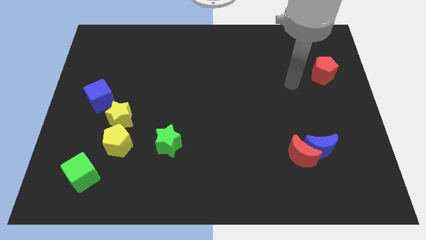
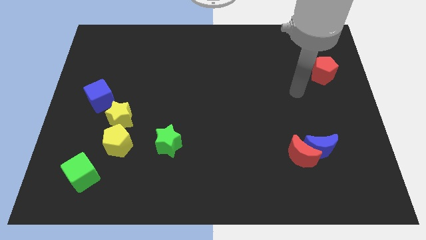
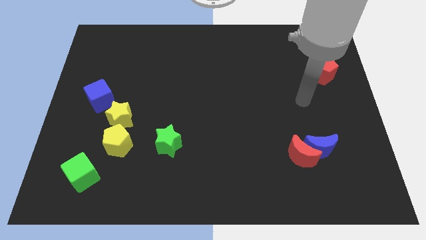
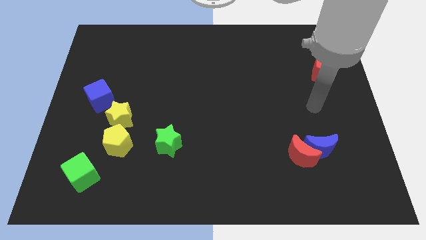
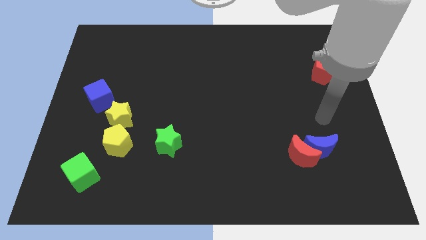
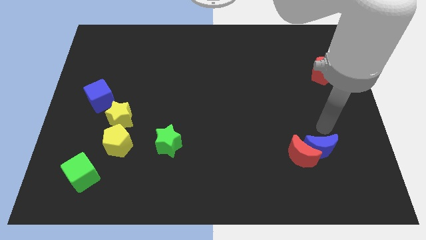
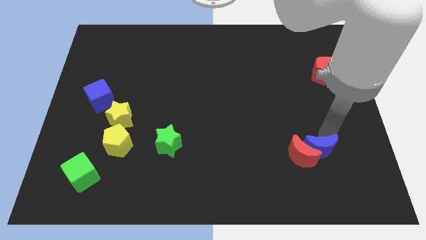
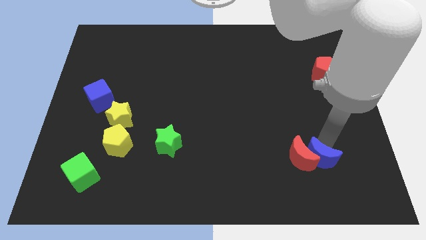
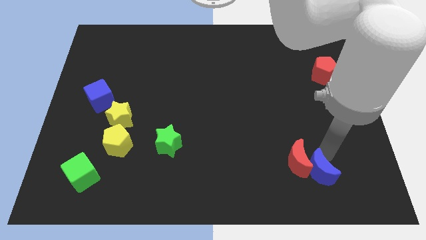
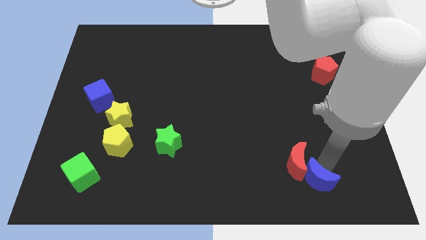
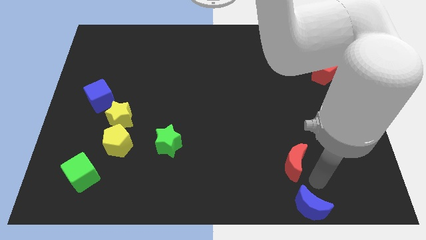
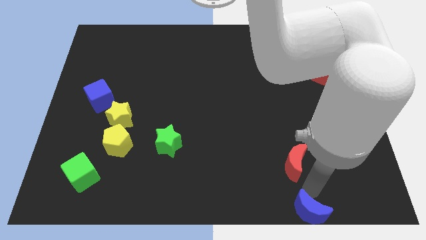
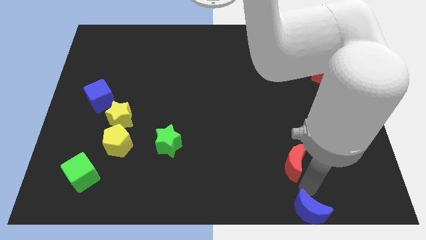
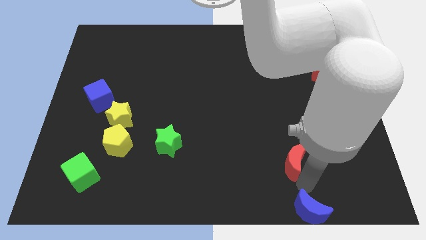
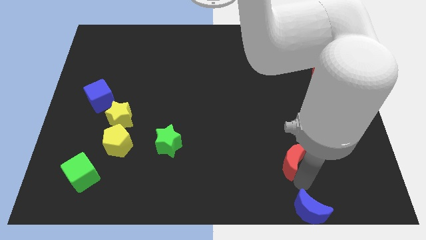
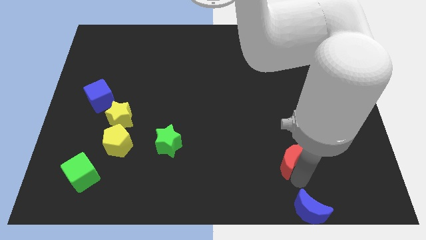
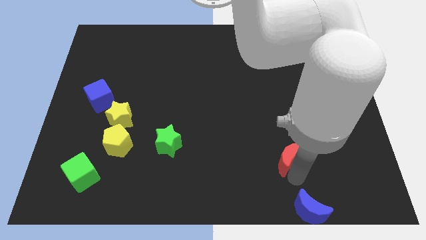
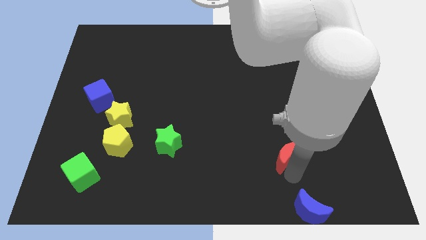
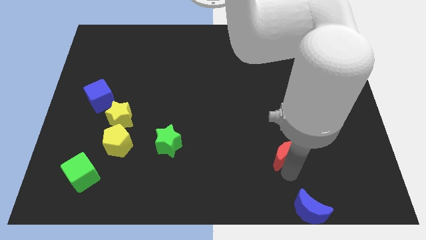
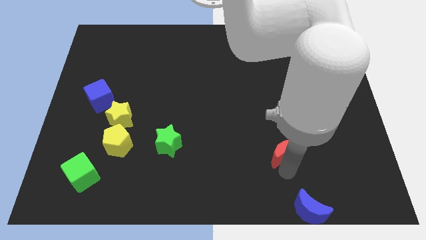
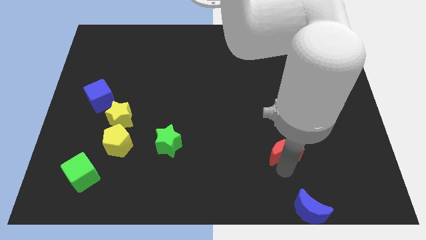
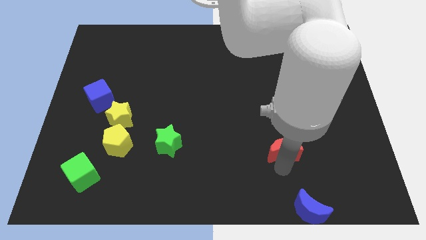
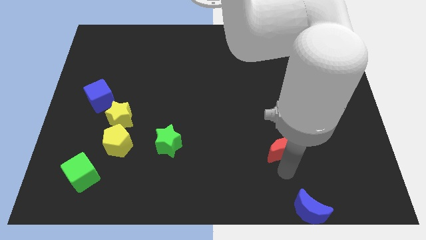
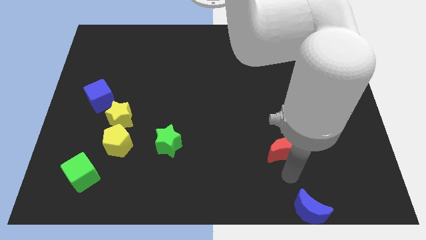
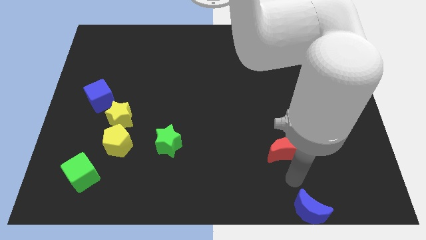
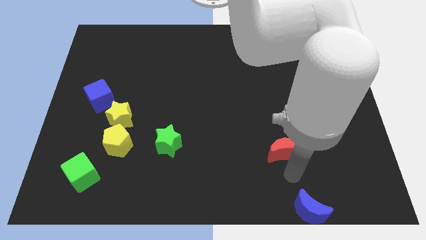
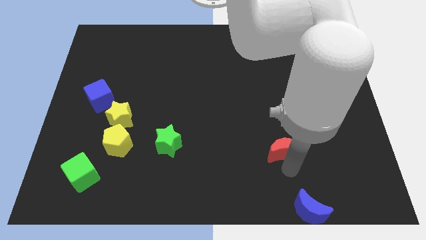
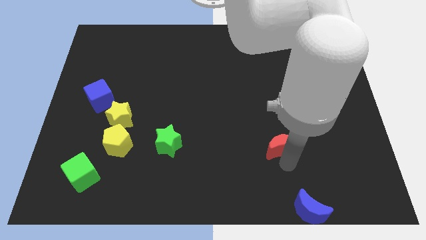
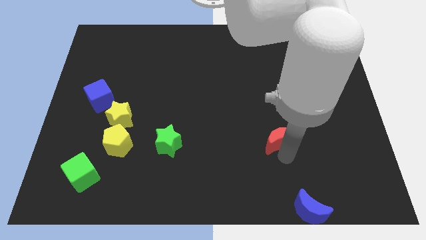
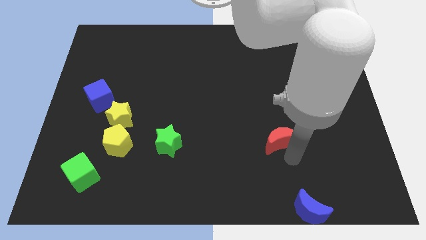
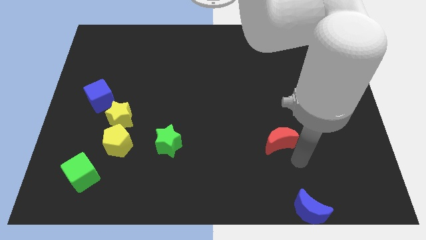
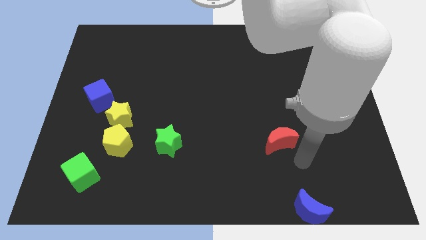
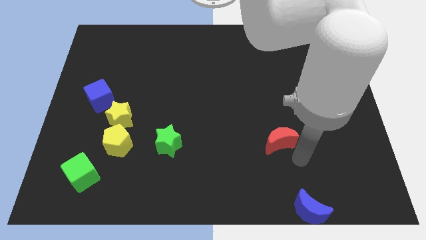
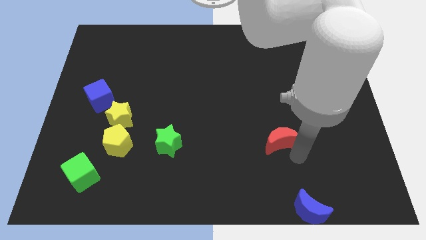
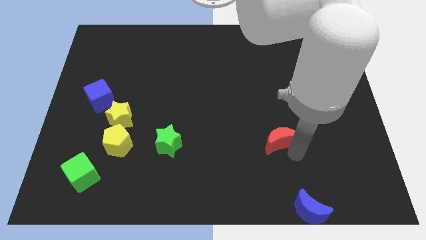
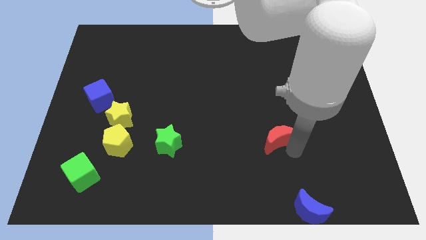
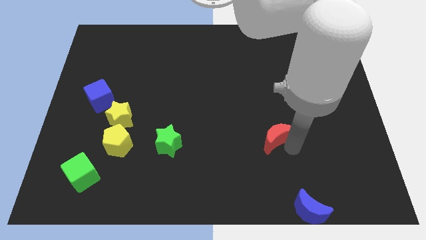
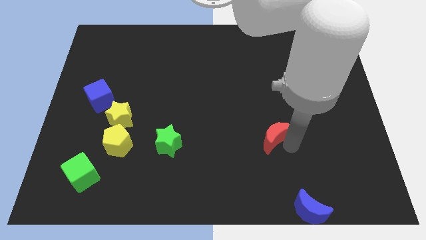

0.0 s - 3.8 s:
slightly slide the red moon up and left diagonally

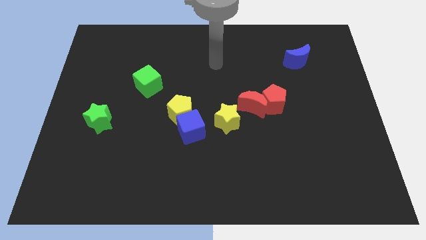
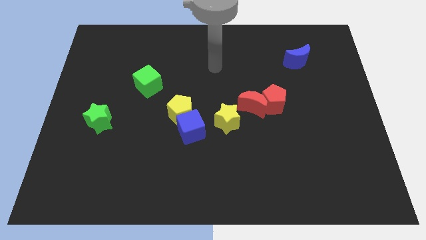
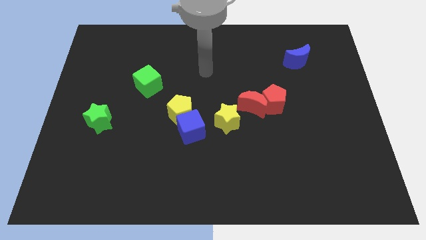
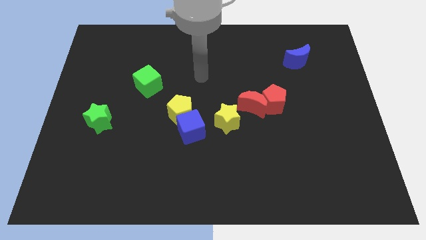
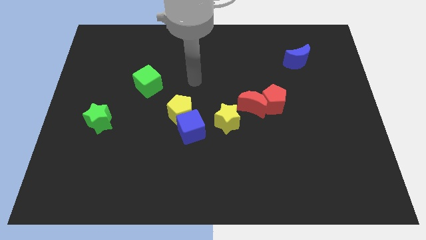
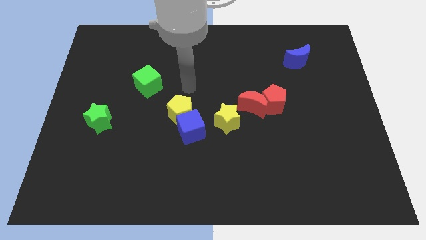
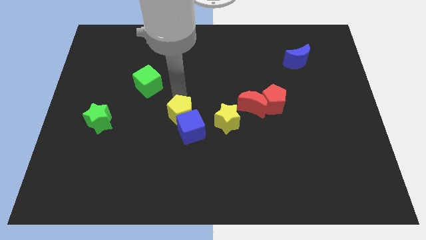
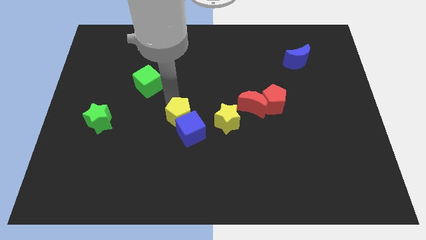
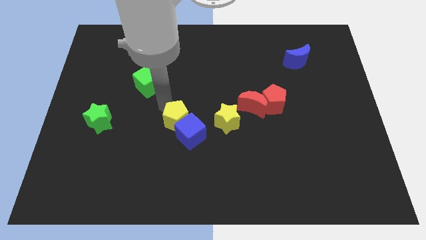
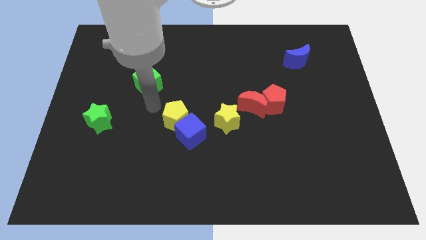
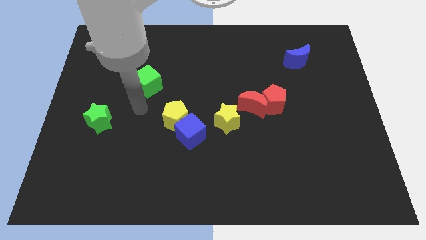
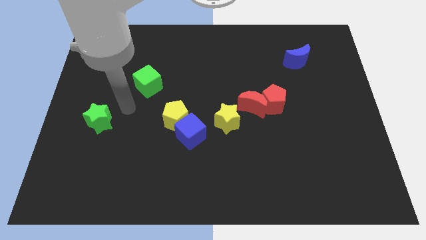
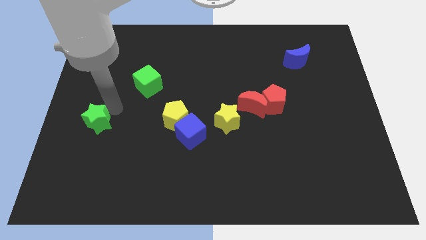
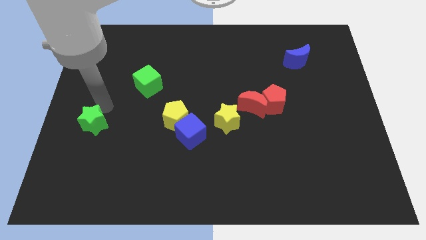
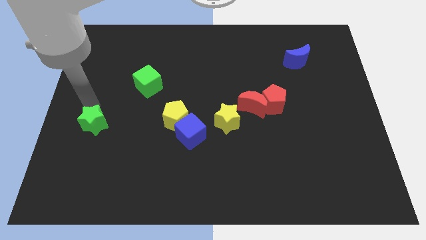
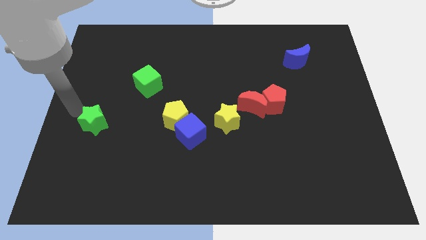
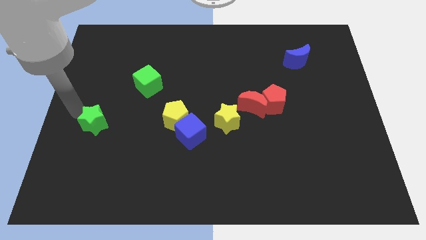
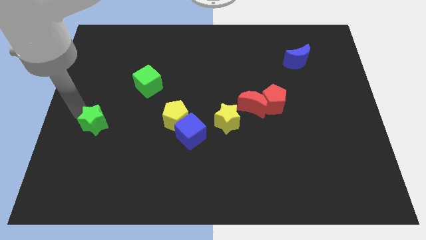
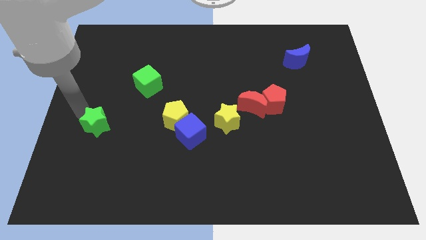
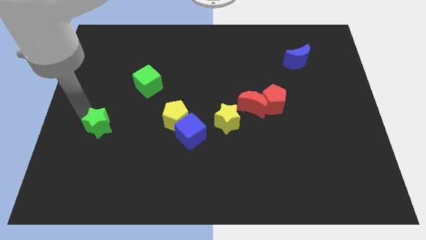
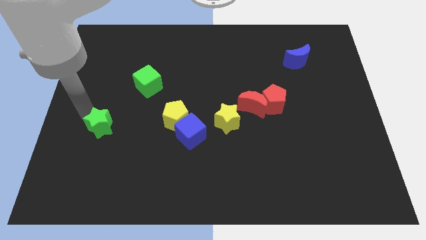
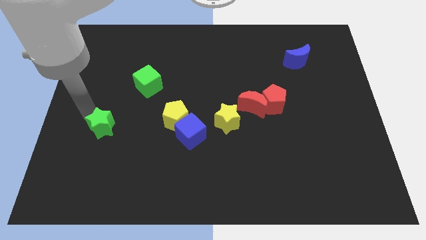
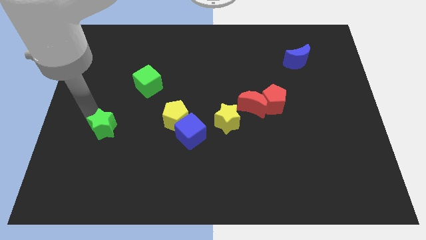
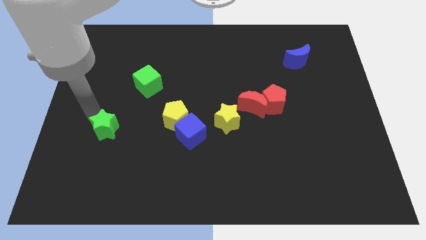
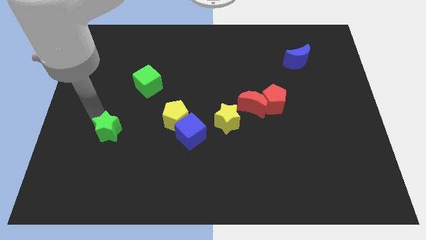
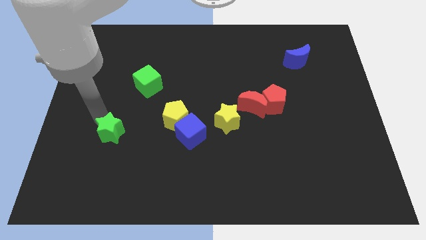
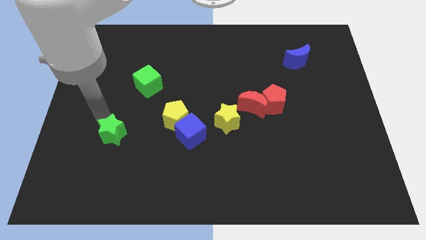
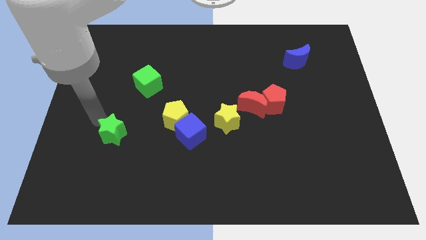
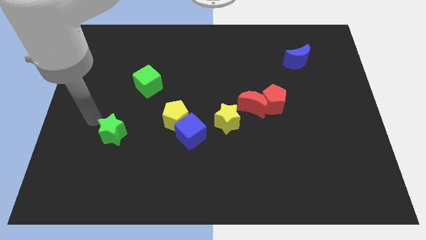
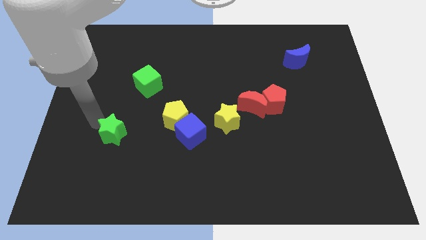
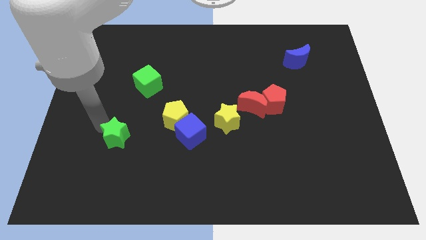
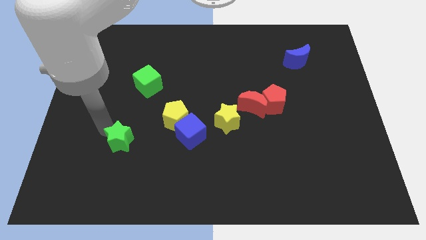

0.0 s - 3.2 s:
slightly slide the green star down and to the right diagonally

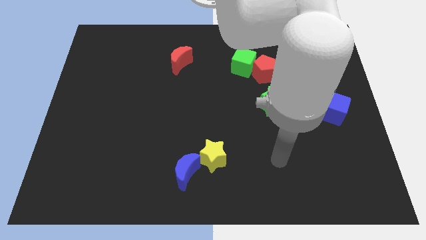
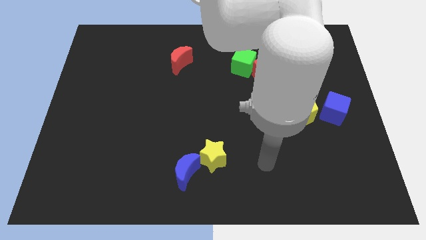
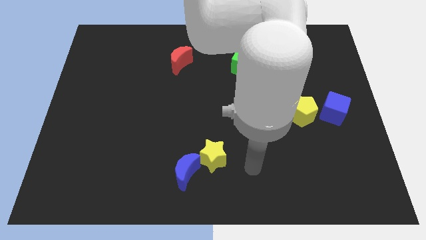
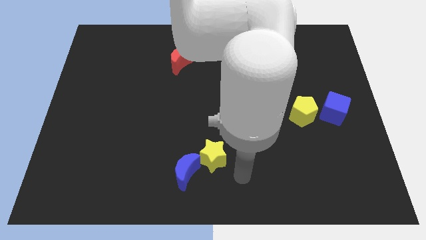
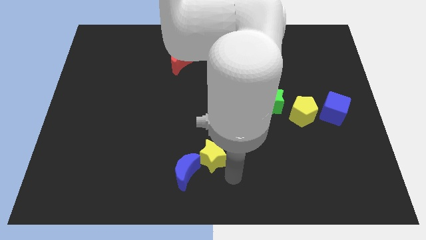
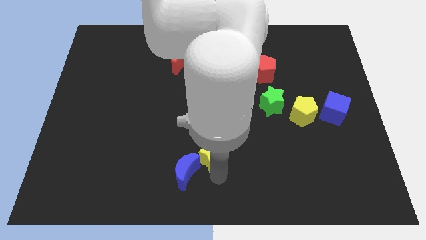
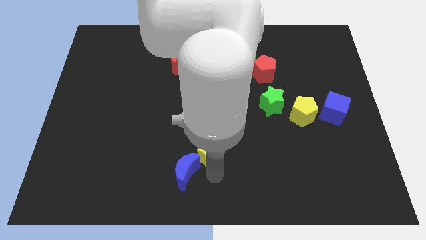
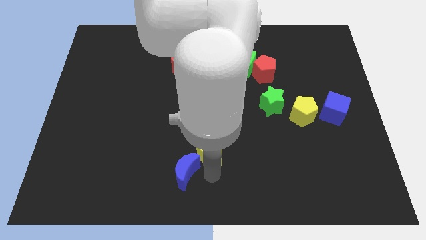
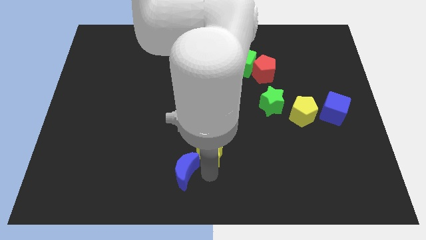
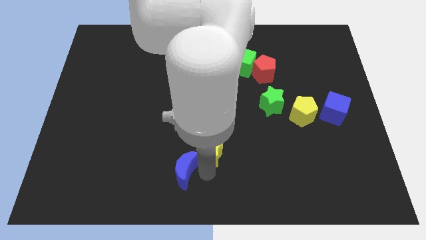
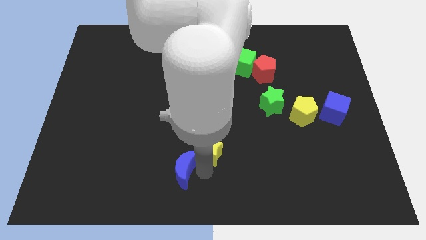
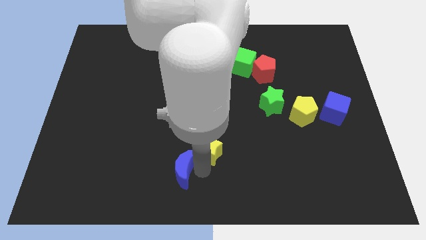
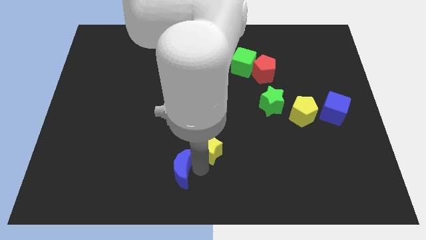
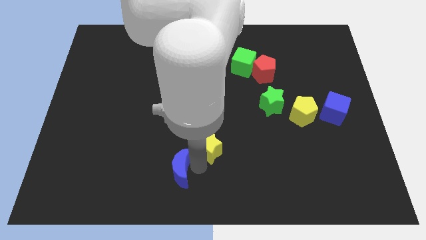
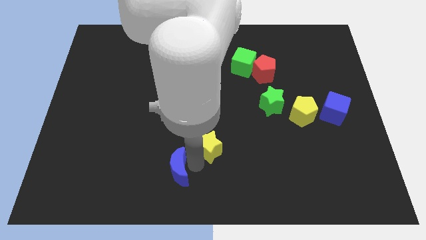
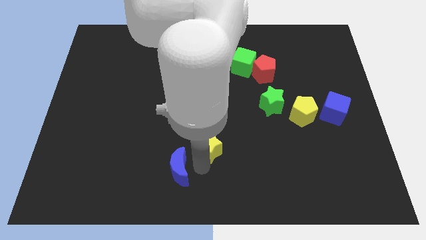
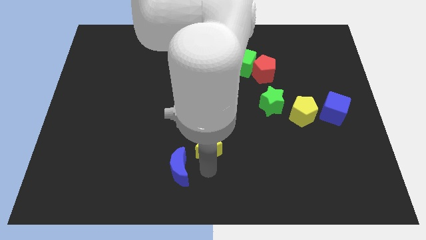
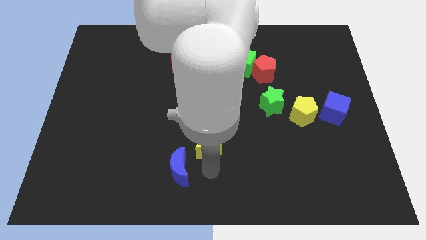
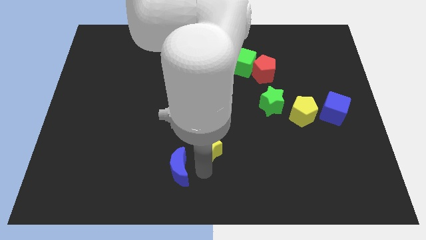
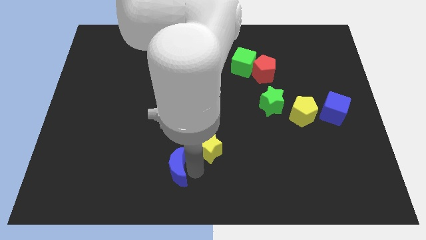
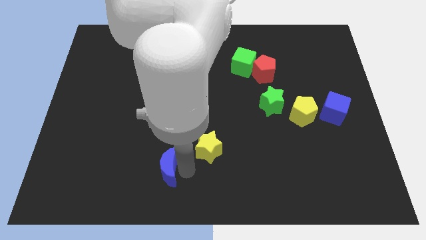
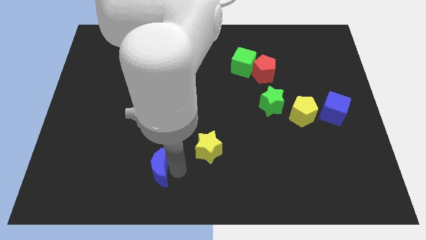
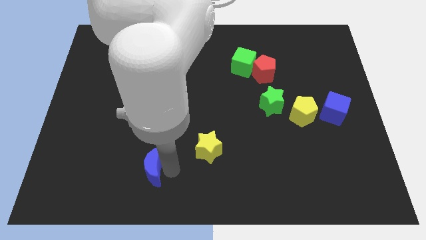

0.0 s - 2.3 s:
slide the blue moon left slightly
